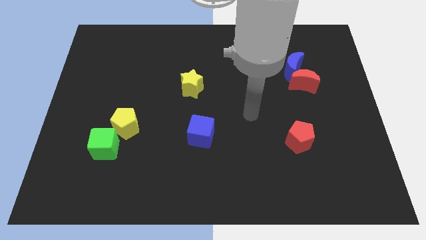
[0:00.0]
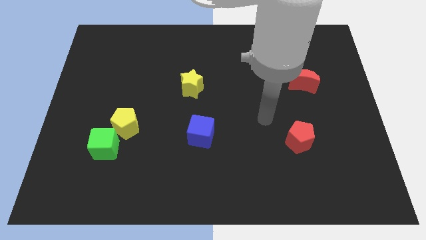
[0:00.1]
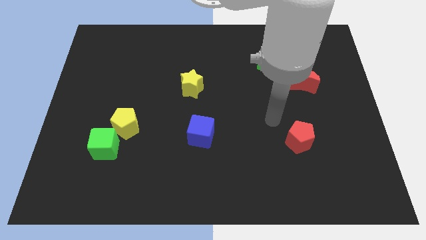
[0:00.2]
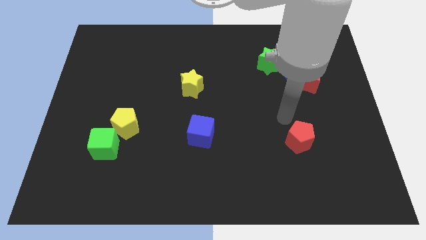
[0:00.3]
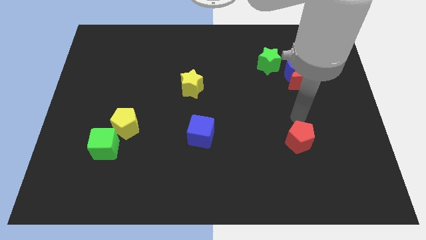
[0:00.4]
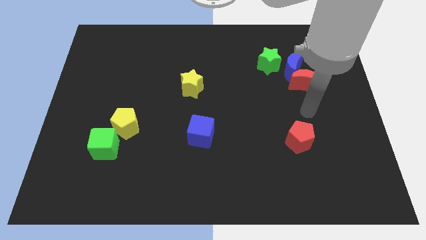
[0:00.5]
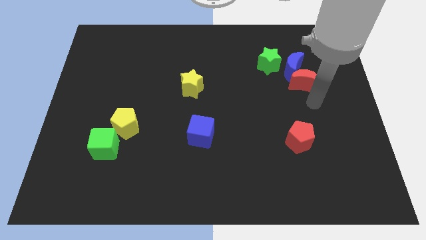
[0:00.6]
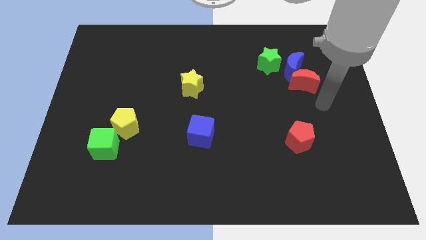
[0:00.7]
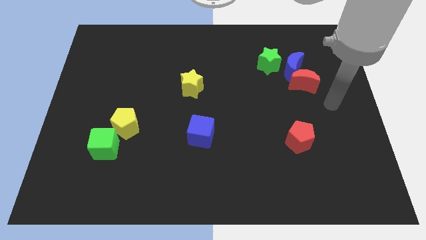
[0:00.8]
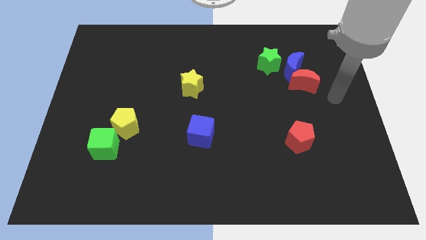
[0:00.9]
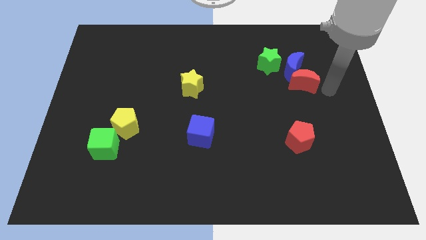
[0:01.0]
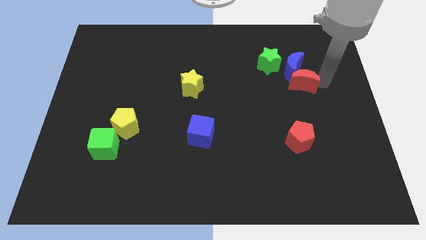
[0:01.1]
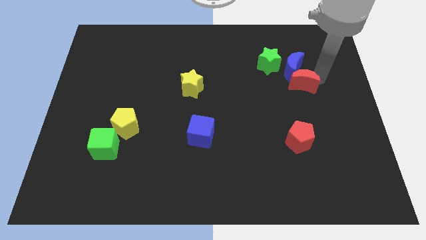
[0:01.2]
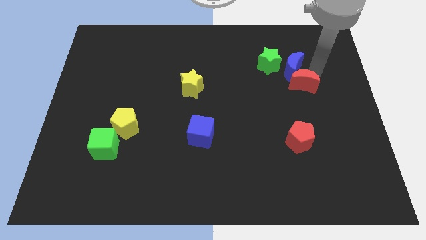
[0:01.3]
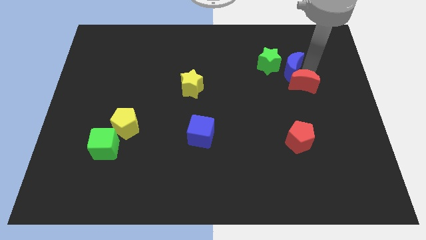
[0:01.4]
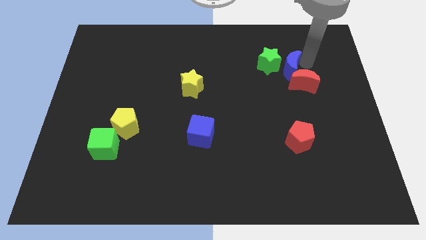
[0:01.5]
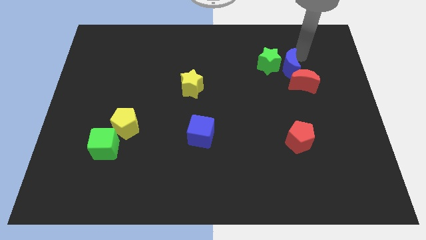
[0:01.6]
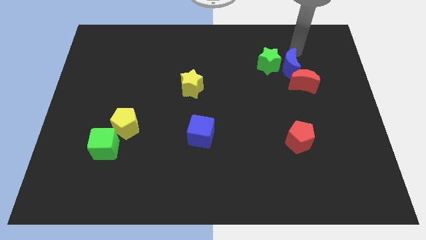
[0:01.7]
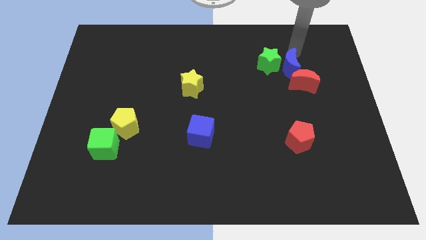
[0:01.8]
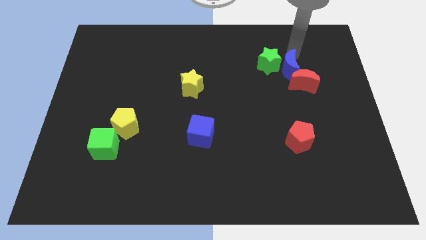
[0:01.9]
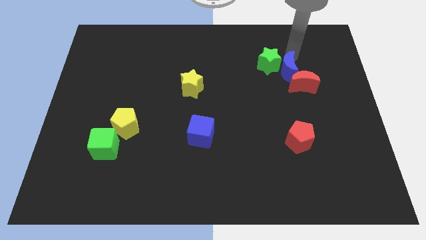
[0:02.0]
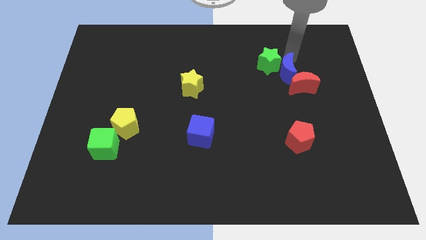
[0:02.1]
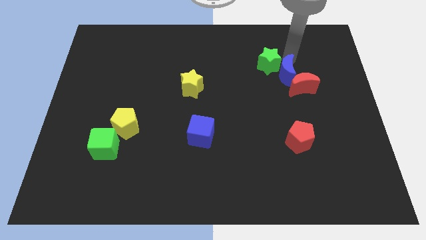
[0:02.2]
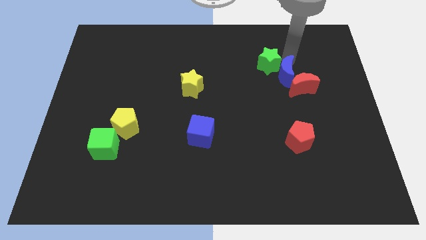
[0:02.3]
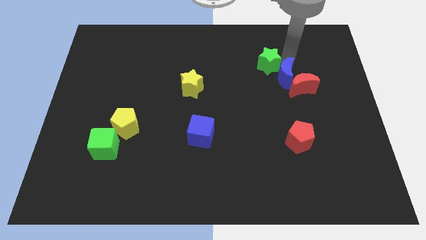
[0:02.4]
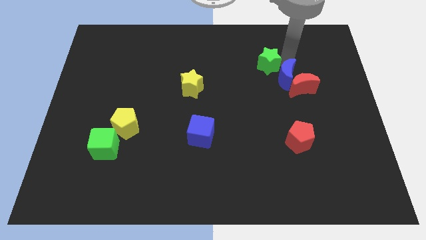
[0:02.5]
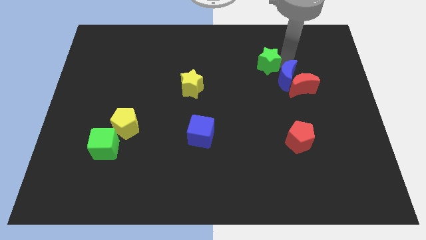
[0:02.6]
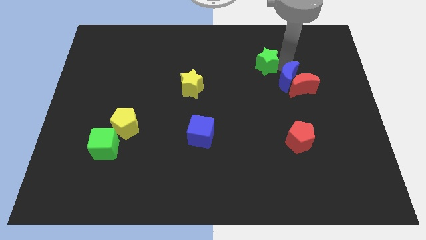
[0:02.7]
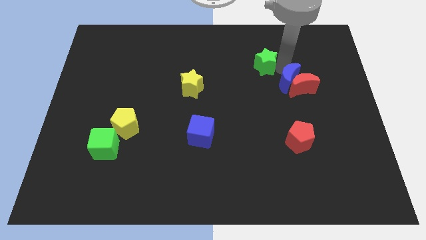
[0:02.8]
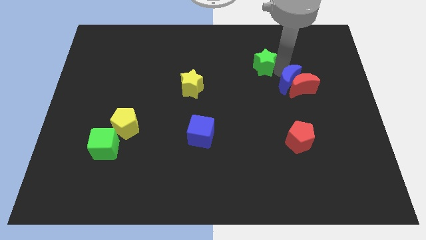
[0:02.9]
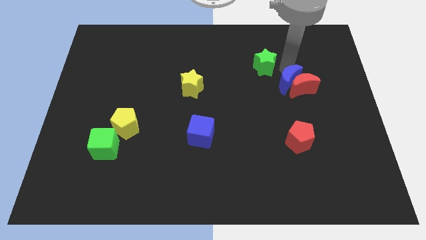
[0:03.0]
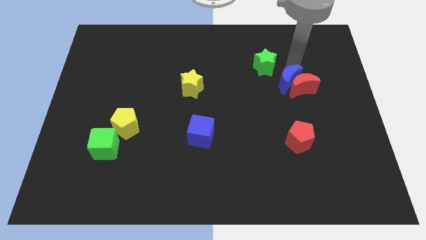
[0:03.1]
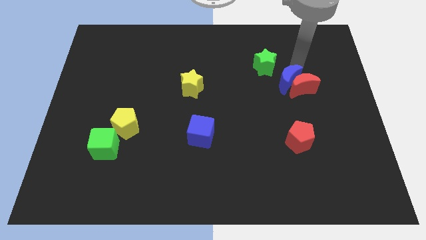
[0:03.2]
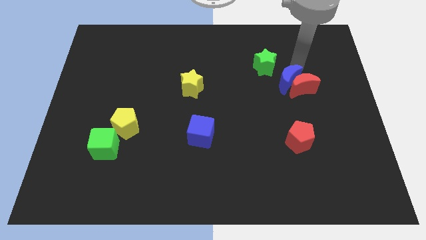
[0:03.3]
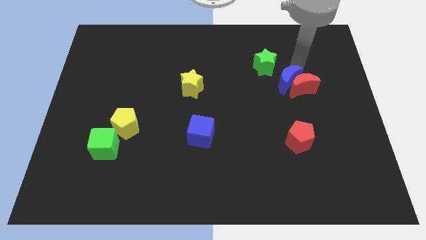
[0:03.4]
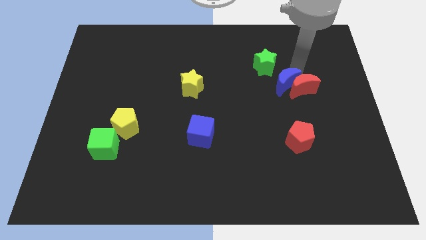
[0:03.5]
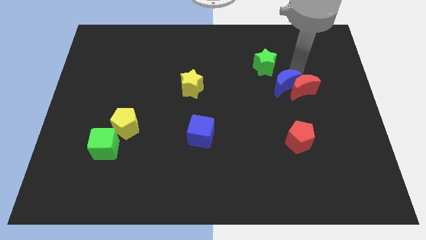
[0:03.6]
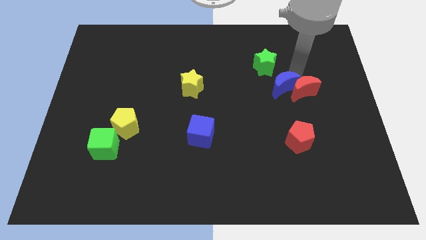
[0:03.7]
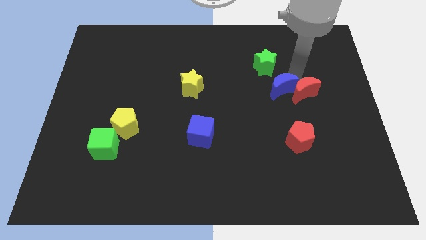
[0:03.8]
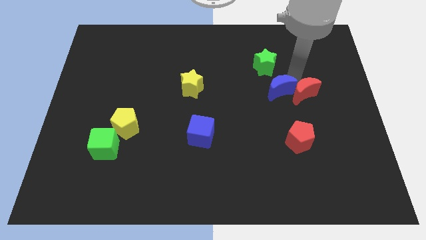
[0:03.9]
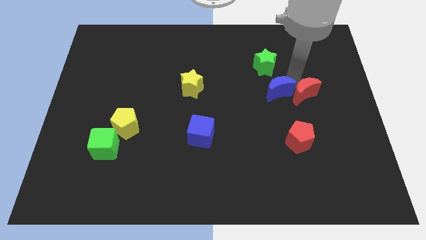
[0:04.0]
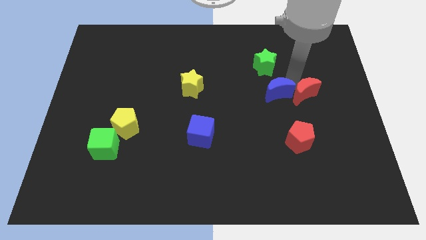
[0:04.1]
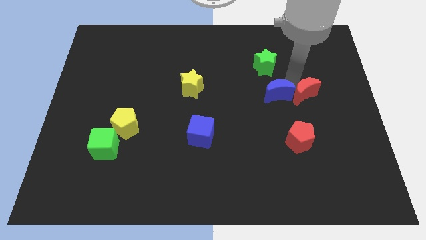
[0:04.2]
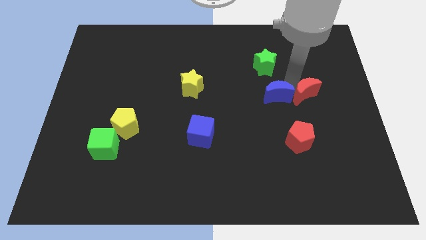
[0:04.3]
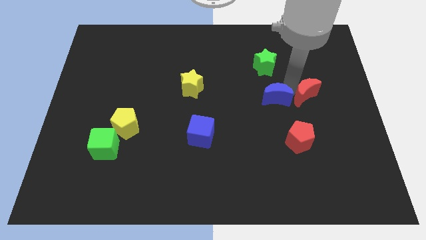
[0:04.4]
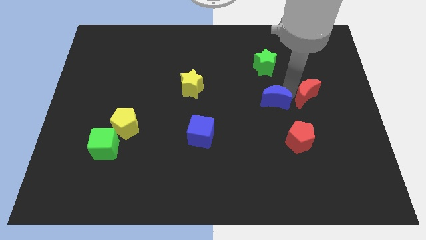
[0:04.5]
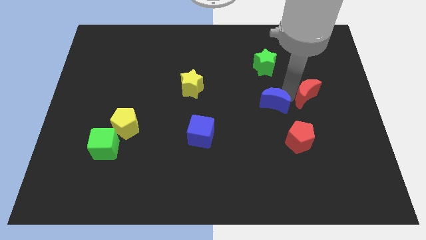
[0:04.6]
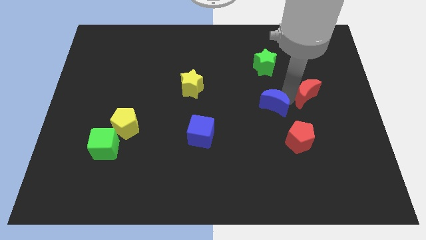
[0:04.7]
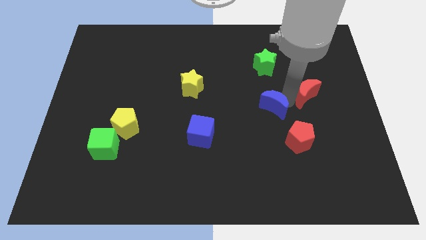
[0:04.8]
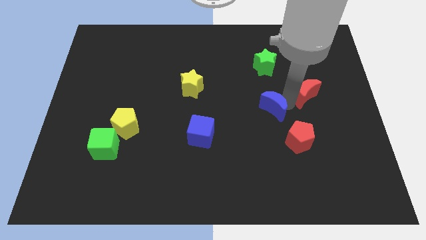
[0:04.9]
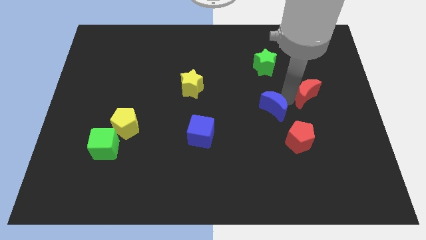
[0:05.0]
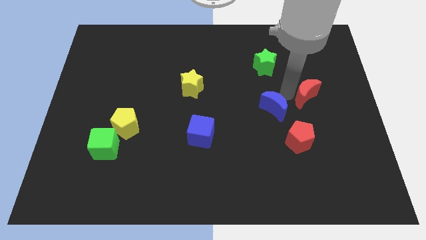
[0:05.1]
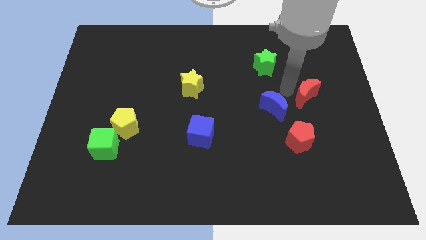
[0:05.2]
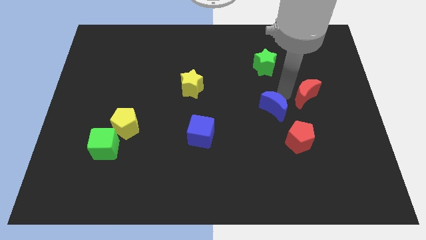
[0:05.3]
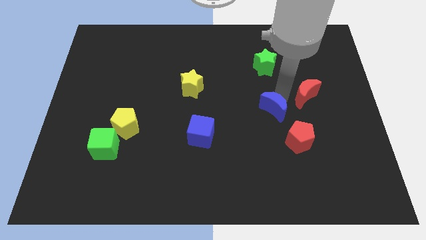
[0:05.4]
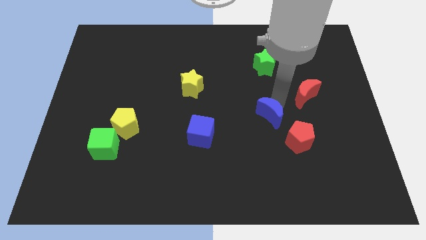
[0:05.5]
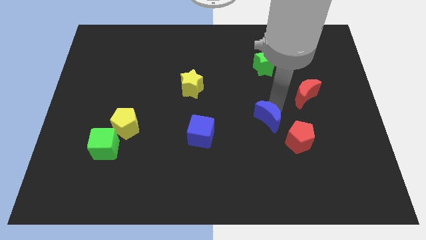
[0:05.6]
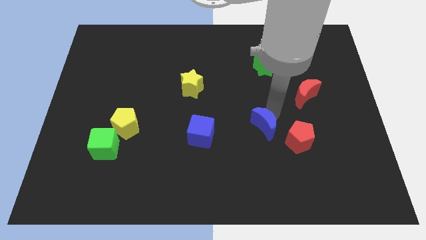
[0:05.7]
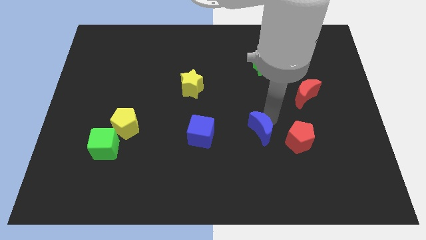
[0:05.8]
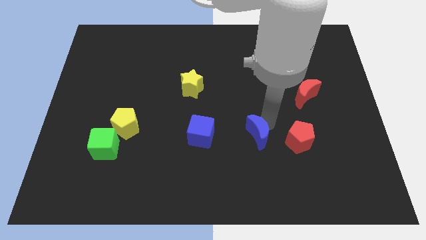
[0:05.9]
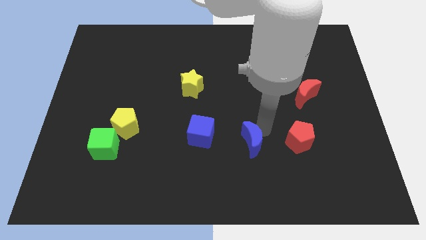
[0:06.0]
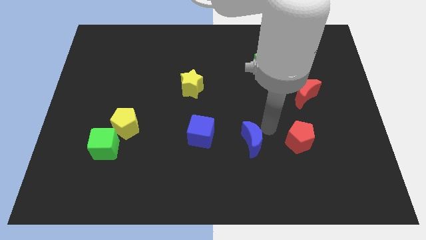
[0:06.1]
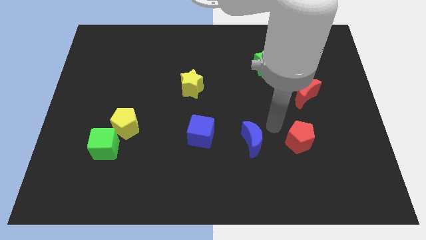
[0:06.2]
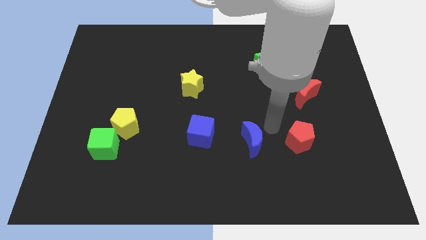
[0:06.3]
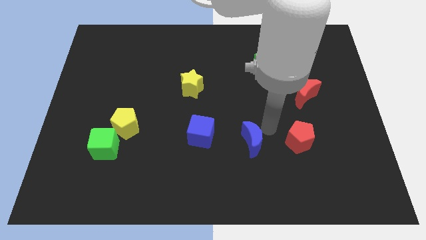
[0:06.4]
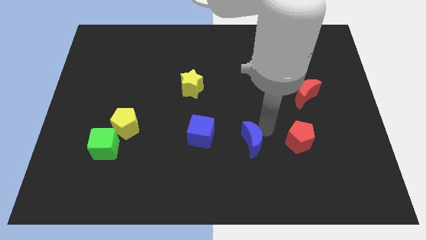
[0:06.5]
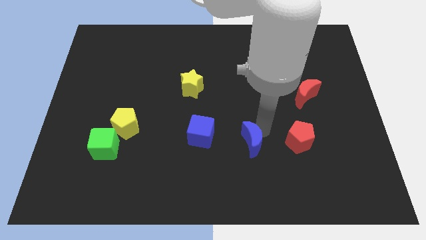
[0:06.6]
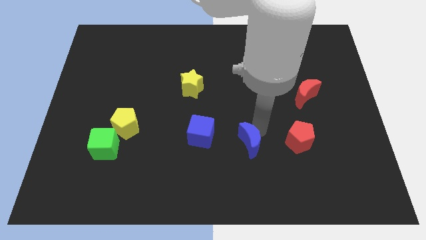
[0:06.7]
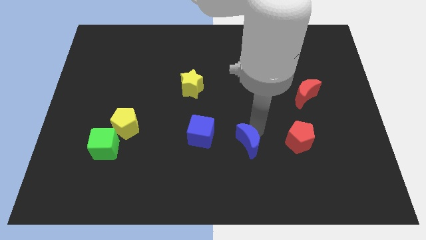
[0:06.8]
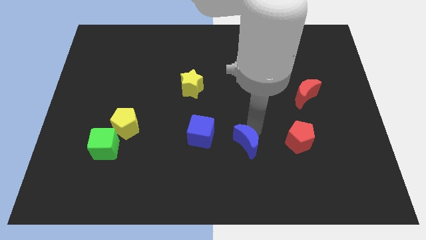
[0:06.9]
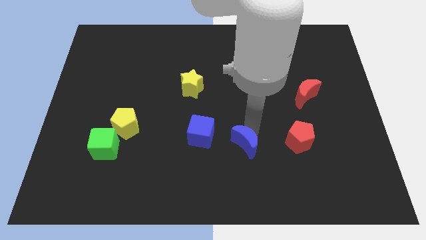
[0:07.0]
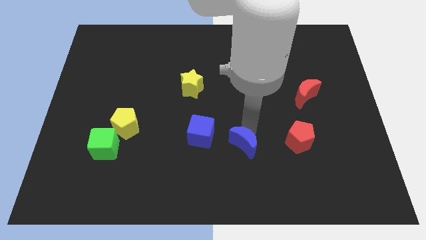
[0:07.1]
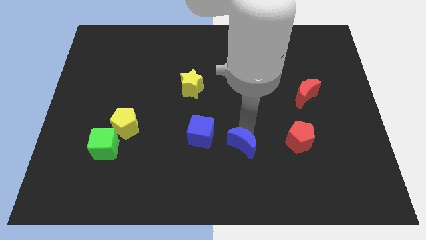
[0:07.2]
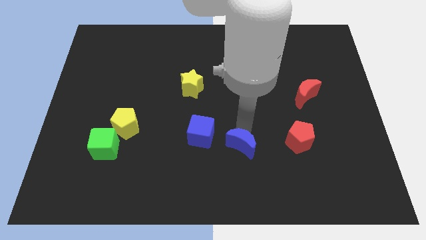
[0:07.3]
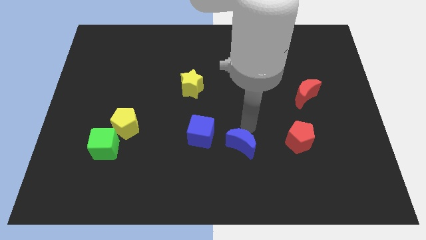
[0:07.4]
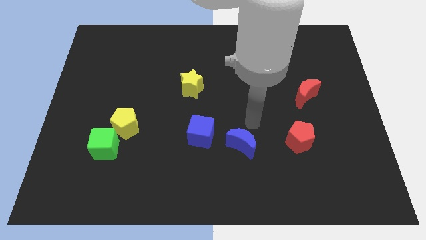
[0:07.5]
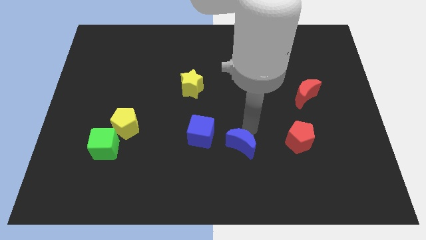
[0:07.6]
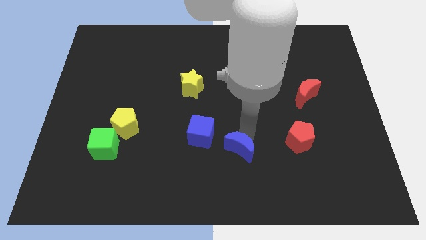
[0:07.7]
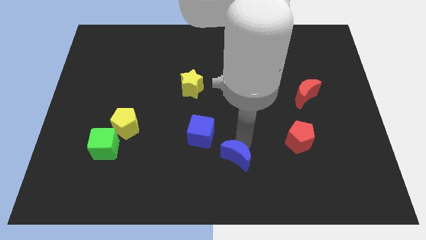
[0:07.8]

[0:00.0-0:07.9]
slide the blue moon to the bottom side
